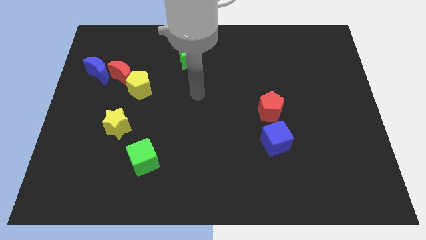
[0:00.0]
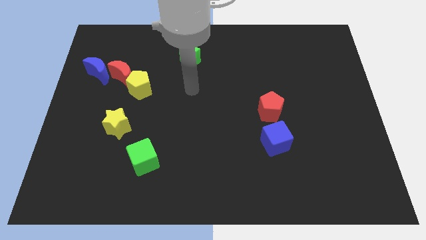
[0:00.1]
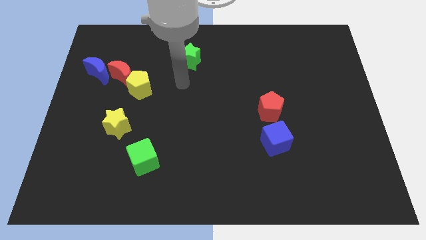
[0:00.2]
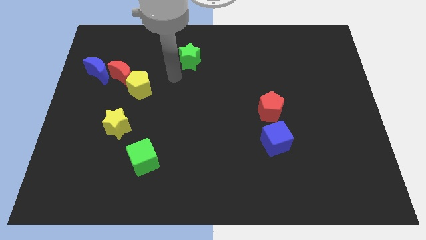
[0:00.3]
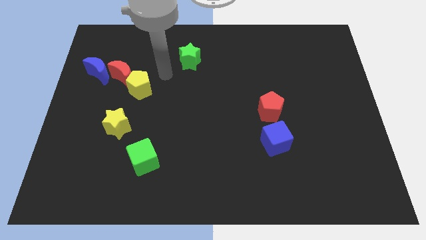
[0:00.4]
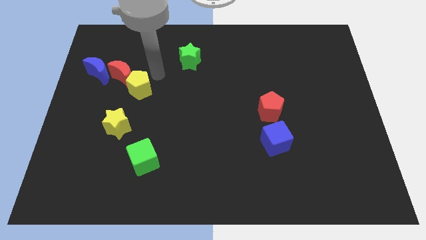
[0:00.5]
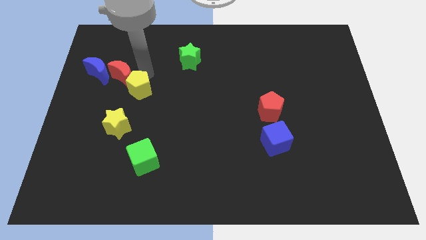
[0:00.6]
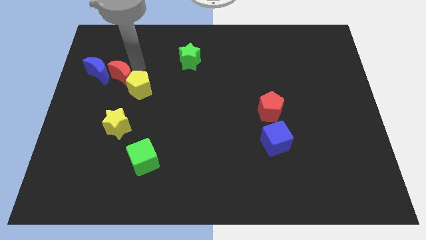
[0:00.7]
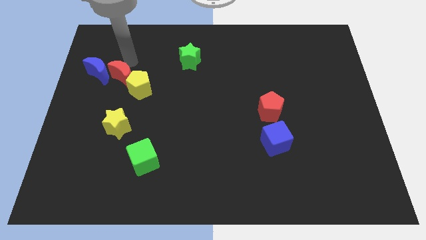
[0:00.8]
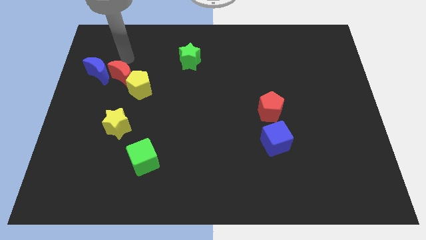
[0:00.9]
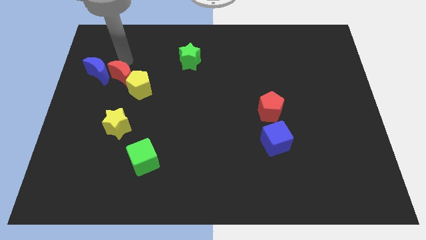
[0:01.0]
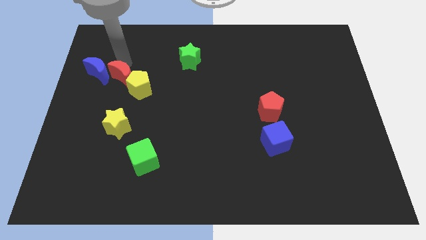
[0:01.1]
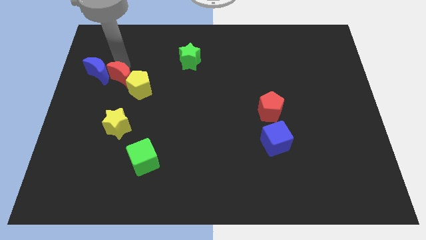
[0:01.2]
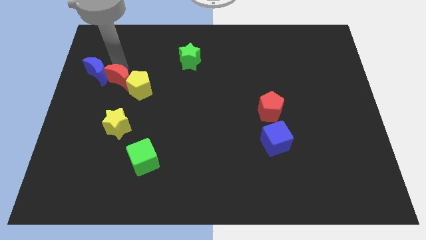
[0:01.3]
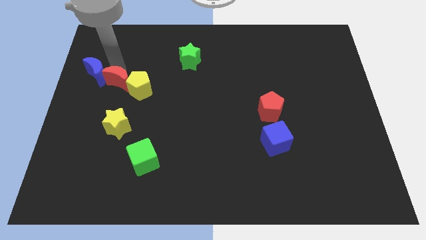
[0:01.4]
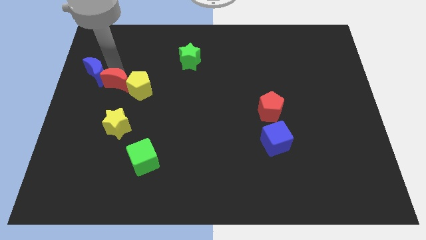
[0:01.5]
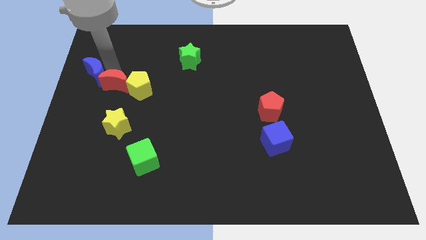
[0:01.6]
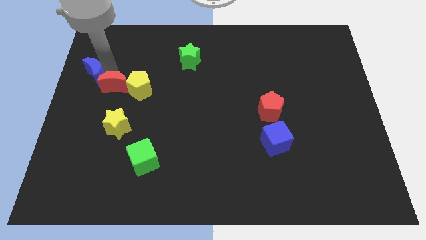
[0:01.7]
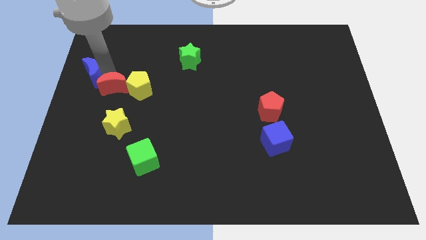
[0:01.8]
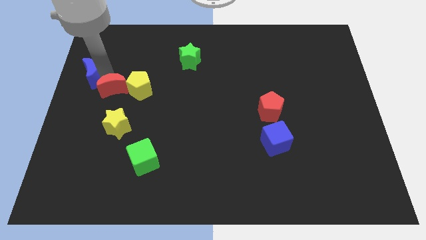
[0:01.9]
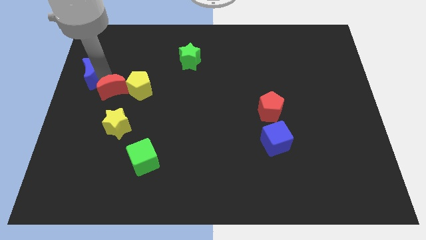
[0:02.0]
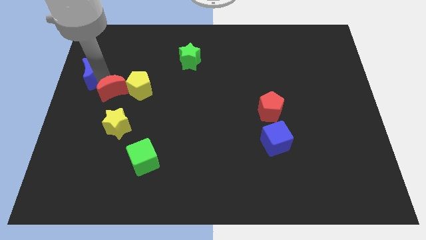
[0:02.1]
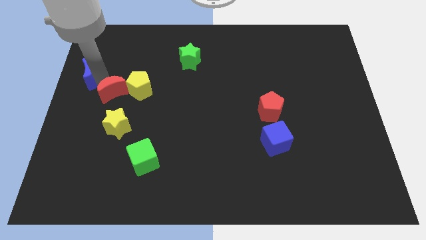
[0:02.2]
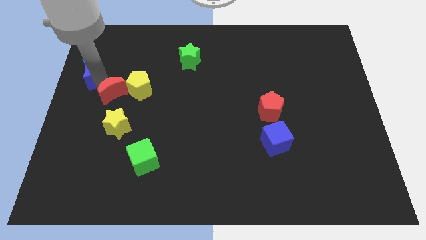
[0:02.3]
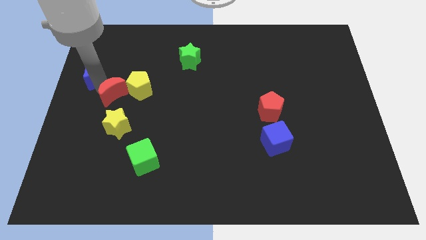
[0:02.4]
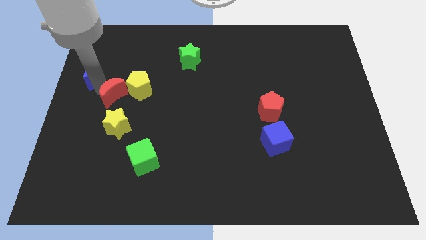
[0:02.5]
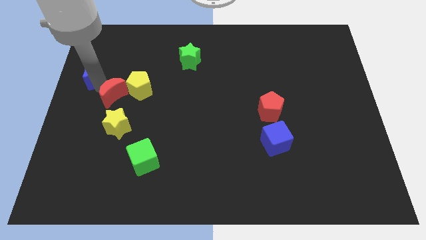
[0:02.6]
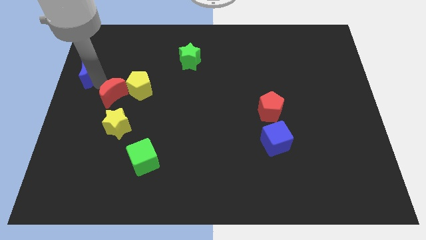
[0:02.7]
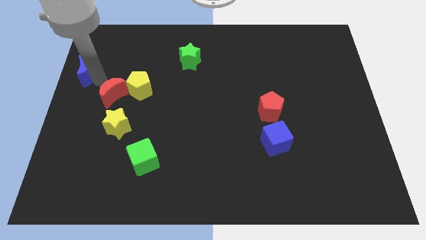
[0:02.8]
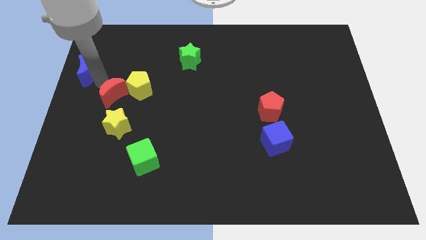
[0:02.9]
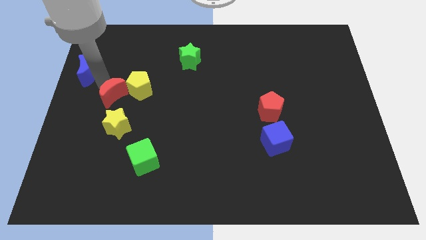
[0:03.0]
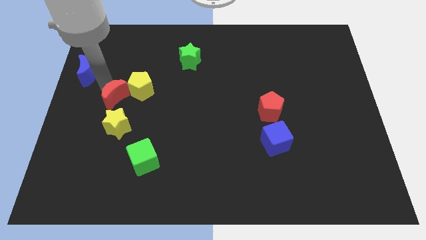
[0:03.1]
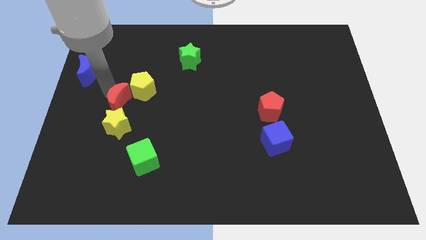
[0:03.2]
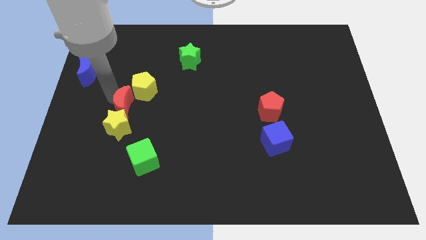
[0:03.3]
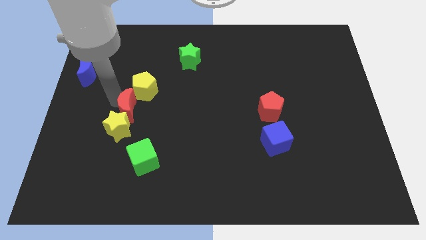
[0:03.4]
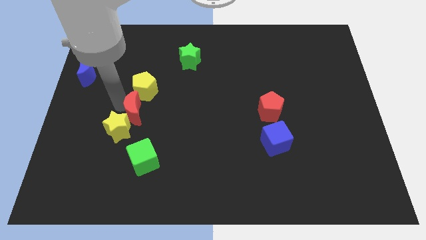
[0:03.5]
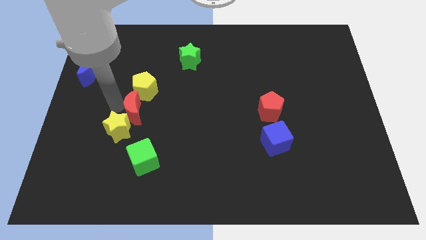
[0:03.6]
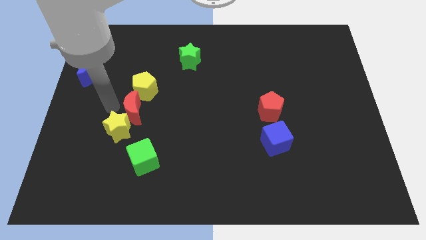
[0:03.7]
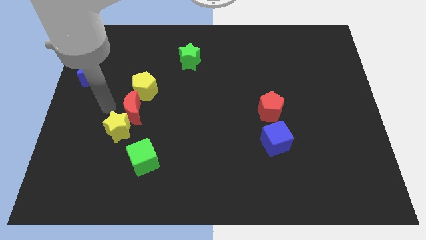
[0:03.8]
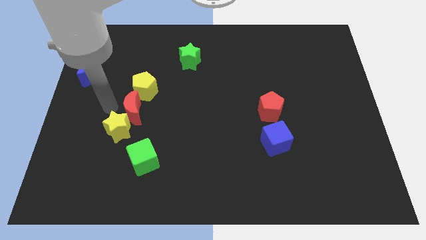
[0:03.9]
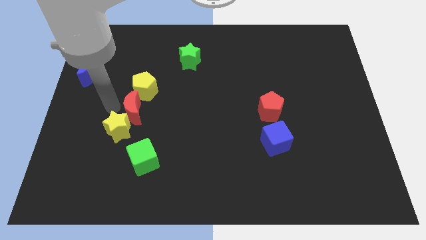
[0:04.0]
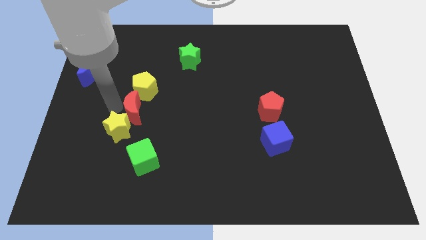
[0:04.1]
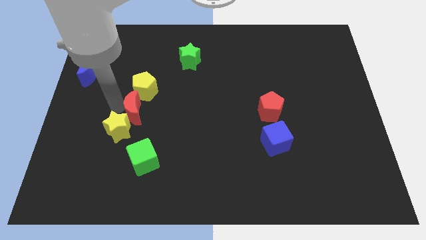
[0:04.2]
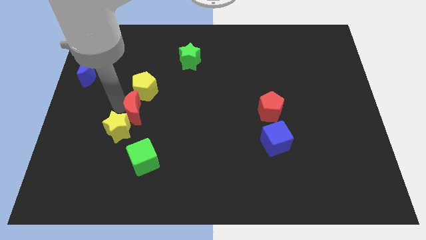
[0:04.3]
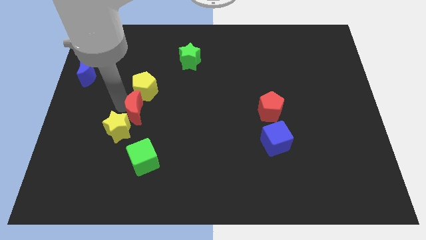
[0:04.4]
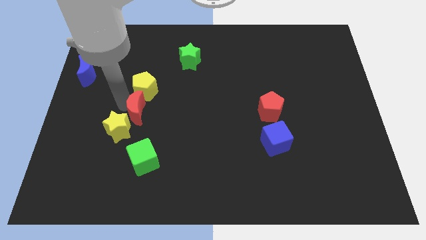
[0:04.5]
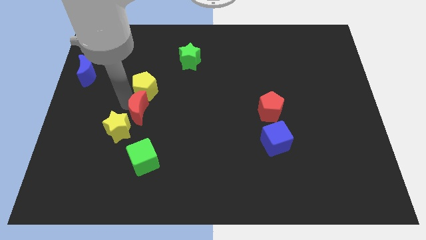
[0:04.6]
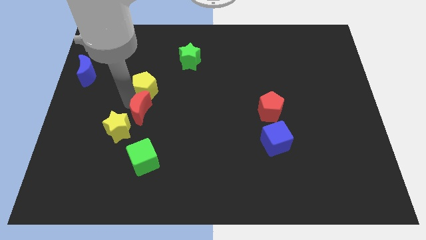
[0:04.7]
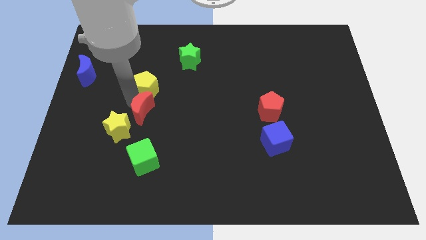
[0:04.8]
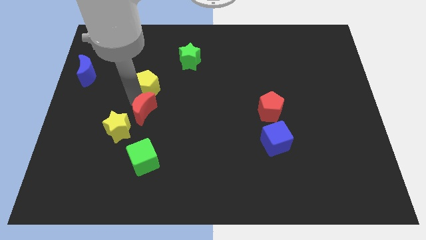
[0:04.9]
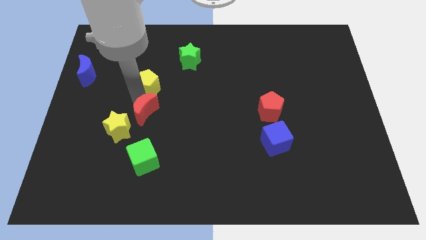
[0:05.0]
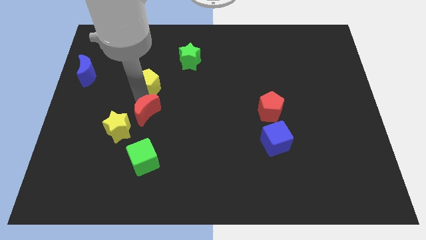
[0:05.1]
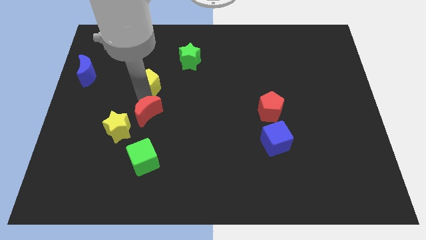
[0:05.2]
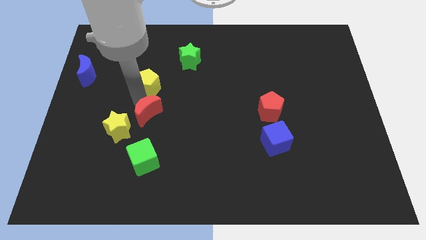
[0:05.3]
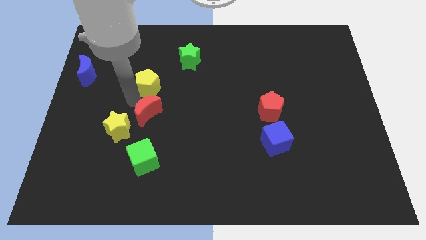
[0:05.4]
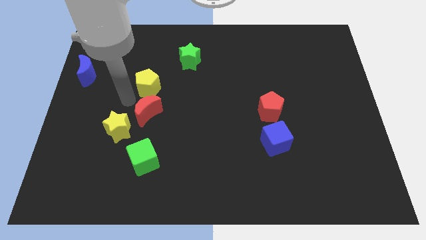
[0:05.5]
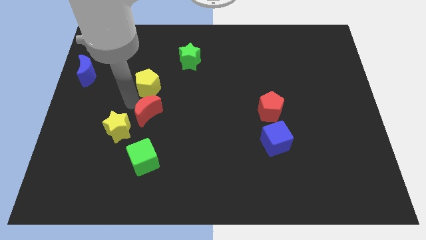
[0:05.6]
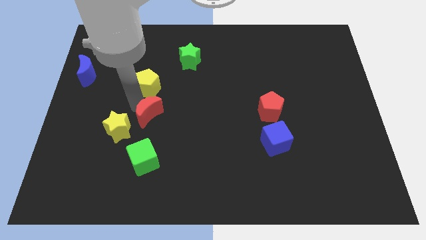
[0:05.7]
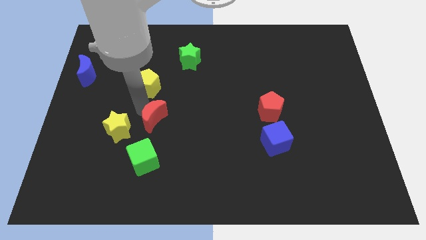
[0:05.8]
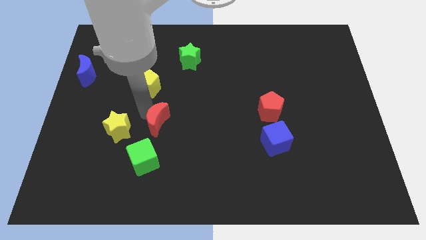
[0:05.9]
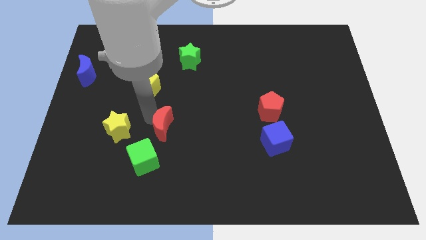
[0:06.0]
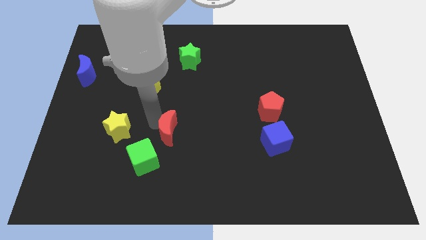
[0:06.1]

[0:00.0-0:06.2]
push the red moon down and to the right diagonally

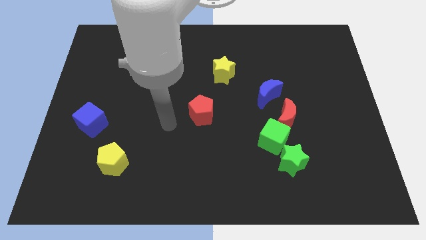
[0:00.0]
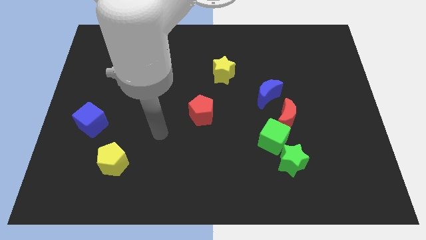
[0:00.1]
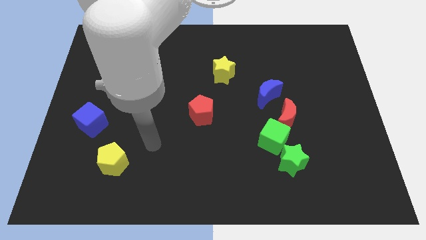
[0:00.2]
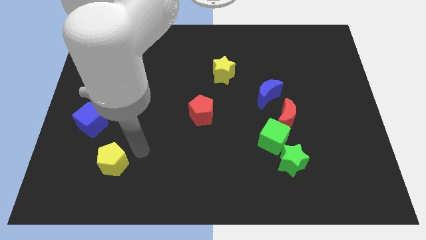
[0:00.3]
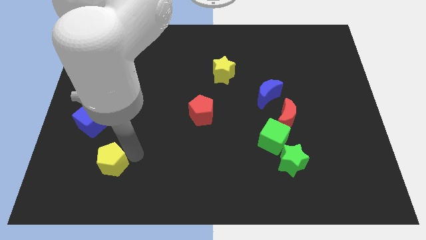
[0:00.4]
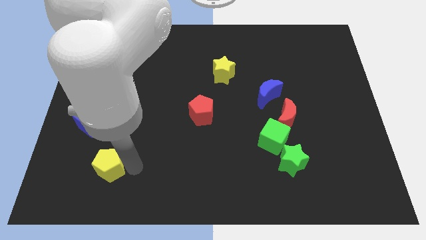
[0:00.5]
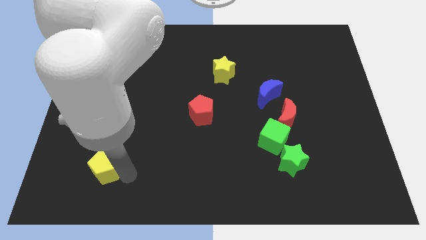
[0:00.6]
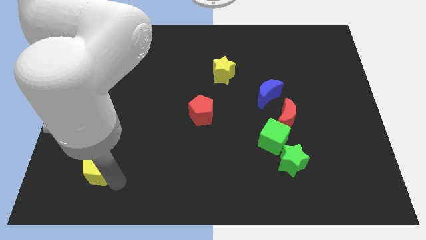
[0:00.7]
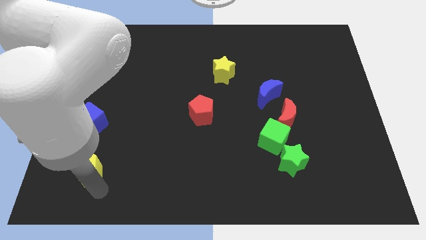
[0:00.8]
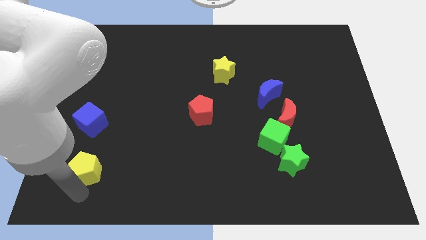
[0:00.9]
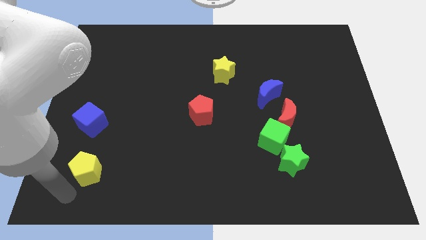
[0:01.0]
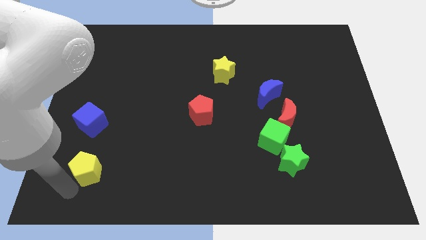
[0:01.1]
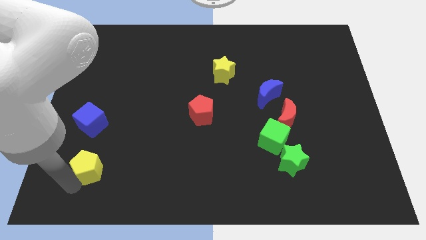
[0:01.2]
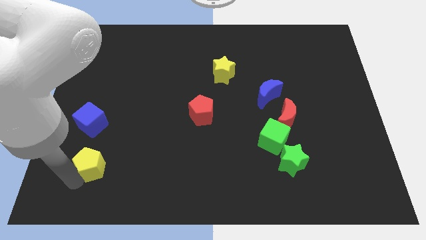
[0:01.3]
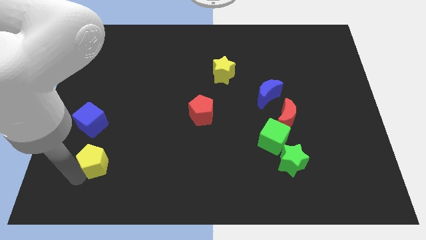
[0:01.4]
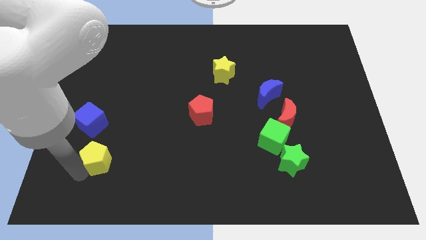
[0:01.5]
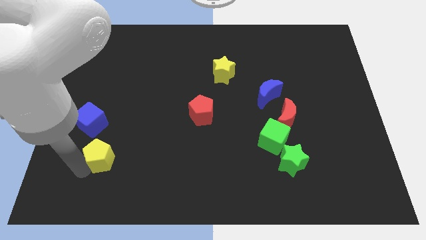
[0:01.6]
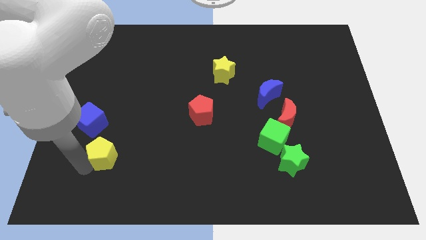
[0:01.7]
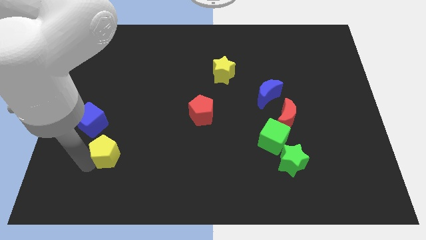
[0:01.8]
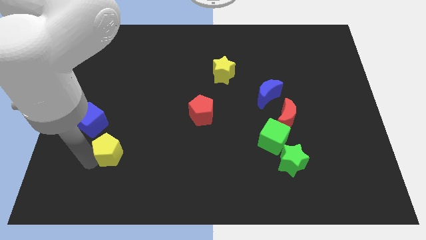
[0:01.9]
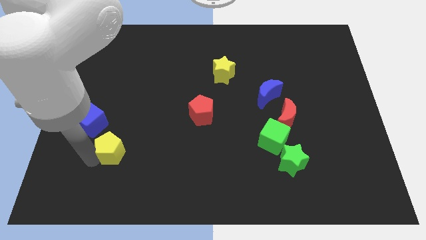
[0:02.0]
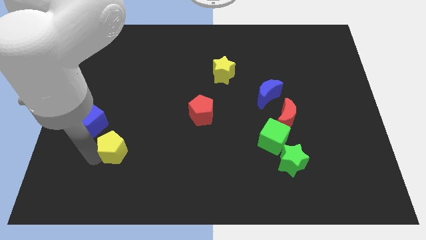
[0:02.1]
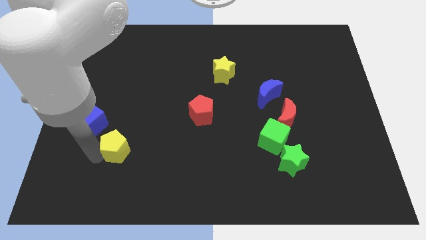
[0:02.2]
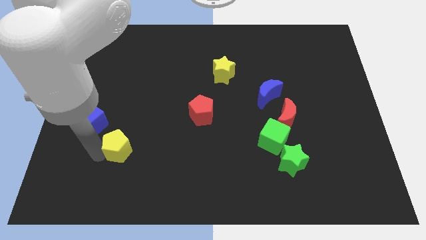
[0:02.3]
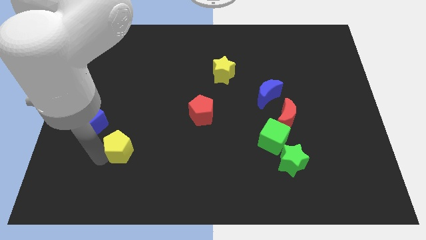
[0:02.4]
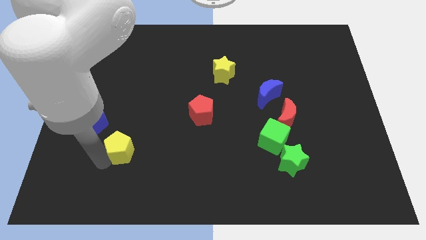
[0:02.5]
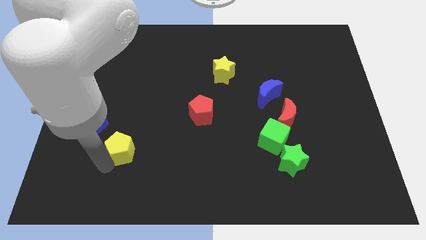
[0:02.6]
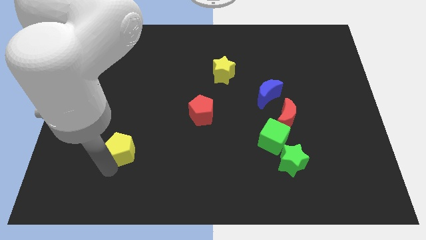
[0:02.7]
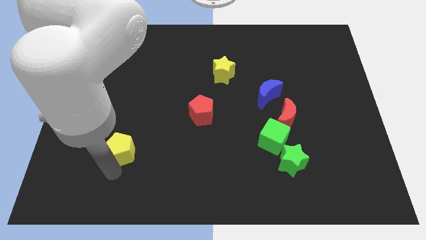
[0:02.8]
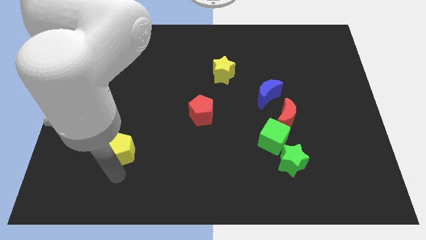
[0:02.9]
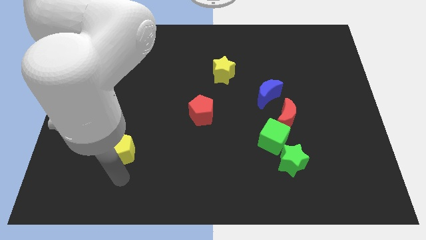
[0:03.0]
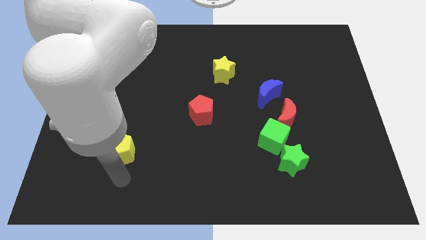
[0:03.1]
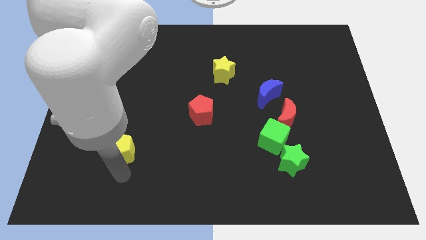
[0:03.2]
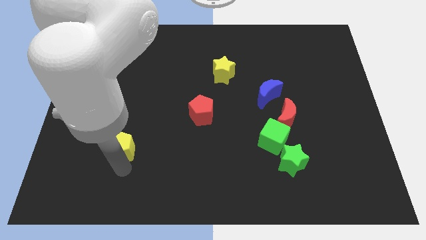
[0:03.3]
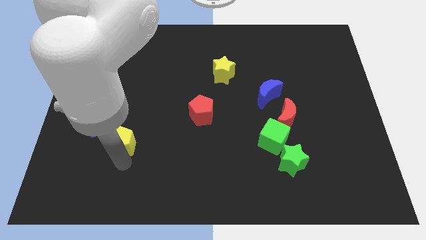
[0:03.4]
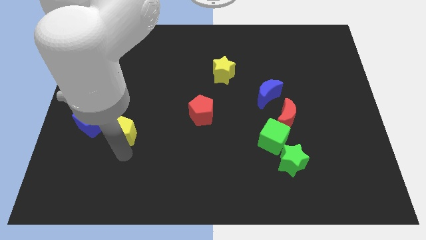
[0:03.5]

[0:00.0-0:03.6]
slide the yellow pentagon upwards a little
